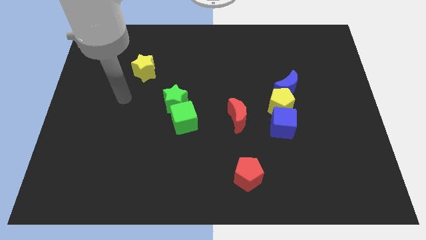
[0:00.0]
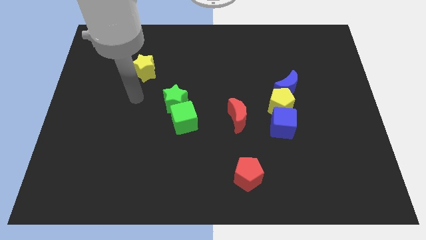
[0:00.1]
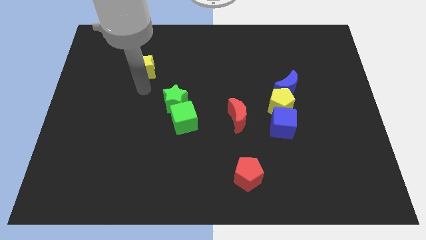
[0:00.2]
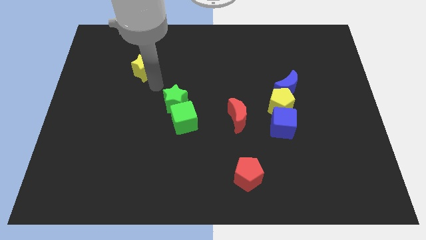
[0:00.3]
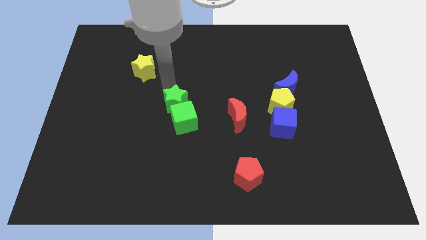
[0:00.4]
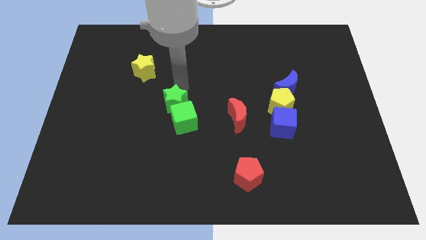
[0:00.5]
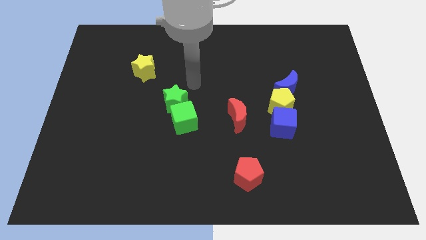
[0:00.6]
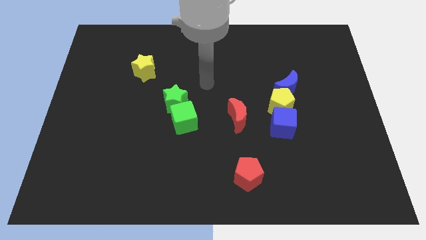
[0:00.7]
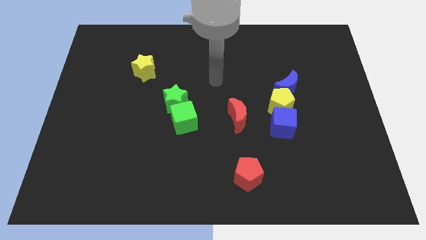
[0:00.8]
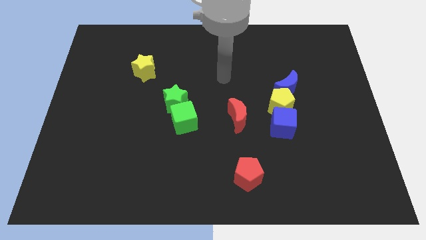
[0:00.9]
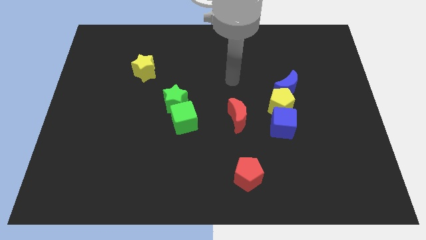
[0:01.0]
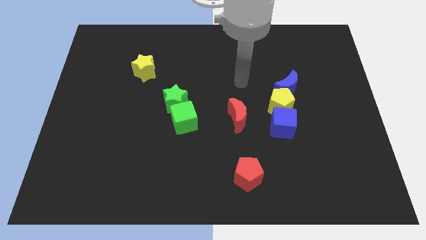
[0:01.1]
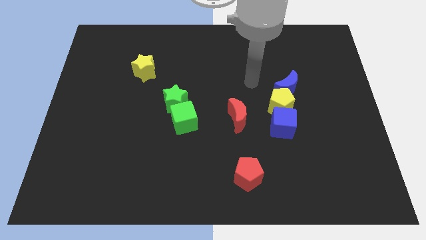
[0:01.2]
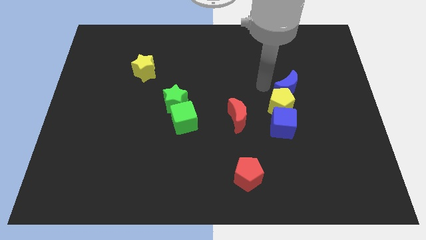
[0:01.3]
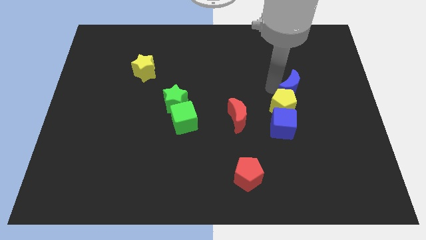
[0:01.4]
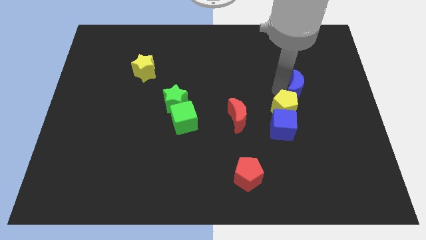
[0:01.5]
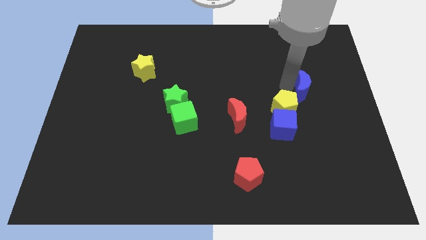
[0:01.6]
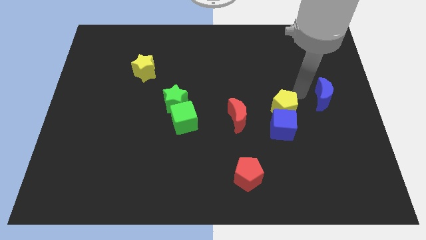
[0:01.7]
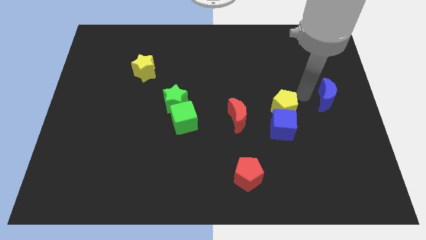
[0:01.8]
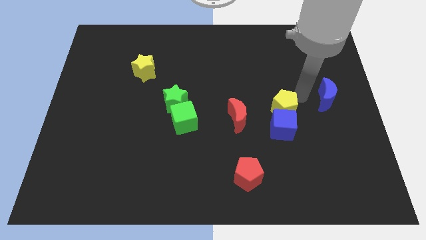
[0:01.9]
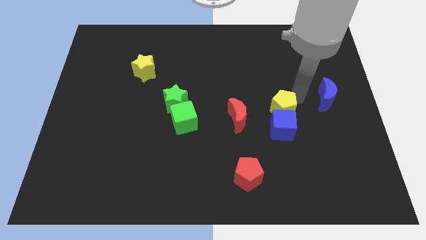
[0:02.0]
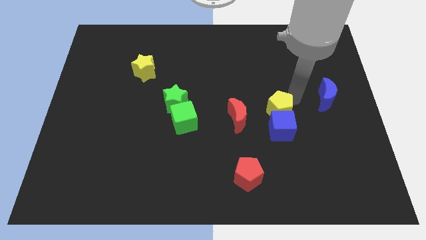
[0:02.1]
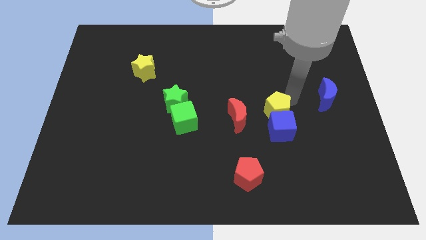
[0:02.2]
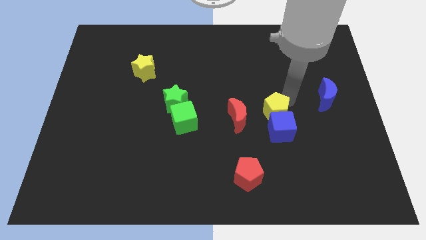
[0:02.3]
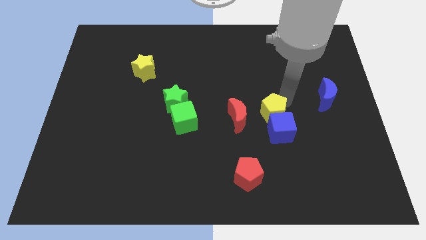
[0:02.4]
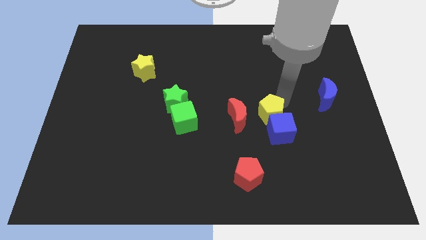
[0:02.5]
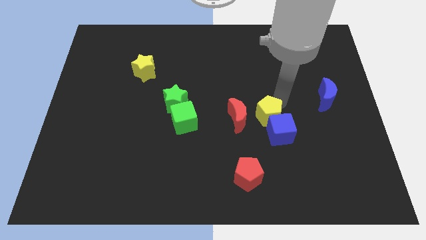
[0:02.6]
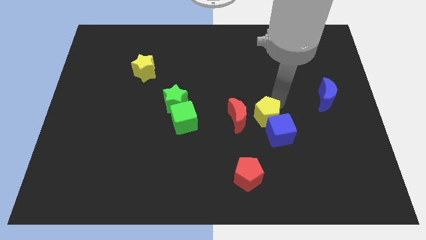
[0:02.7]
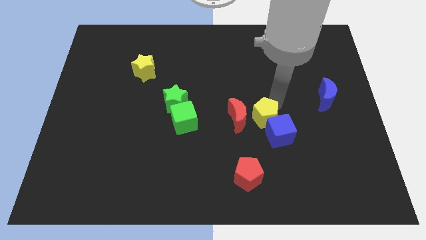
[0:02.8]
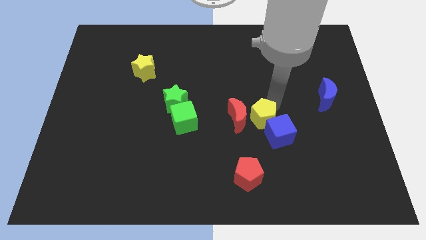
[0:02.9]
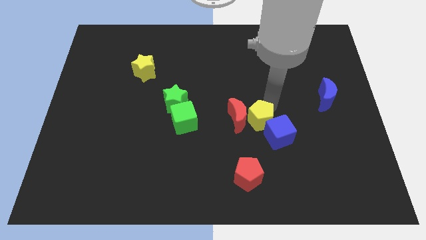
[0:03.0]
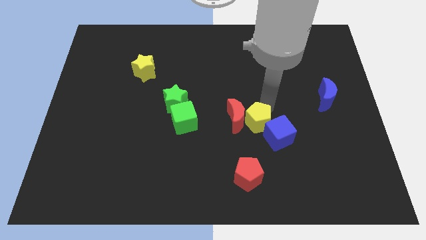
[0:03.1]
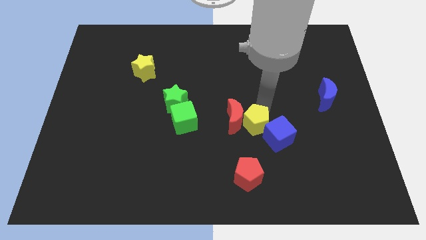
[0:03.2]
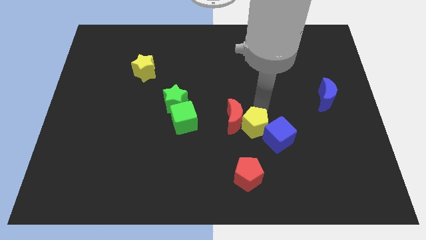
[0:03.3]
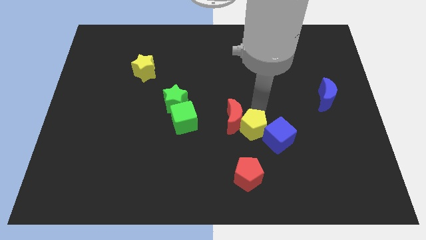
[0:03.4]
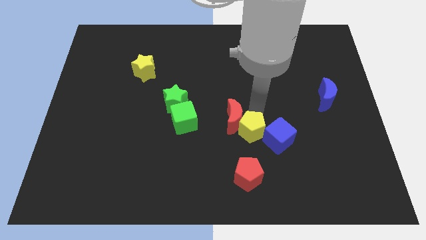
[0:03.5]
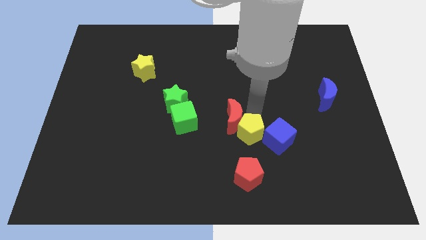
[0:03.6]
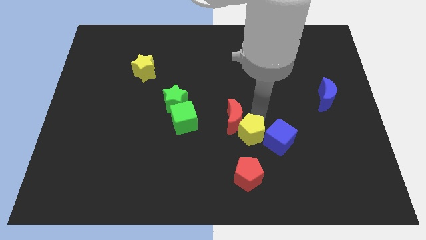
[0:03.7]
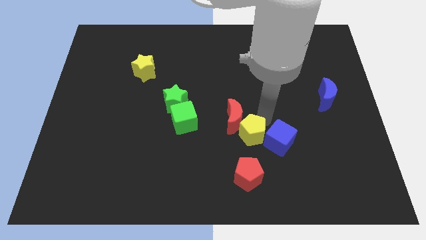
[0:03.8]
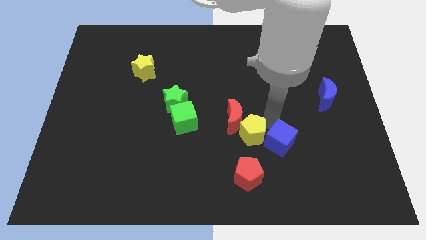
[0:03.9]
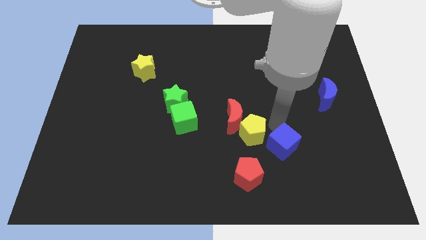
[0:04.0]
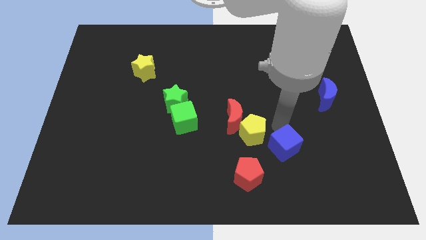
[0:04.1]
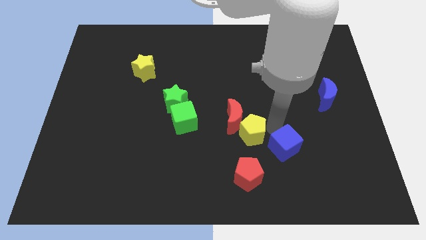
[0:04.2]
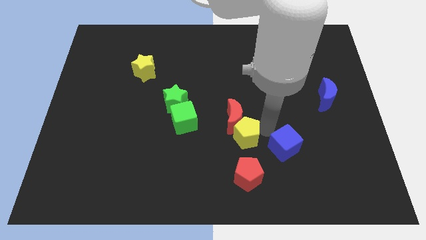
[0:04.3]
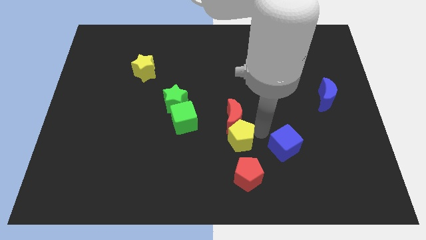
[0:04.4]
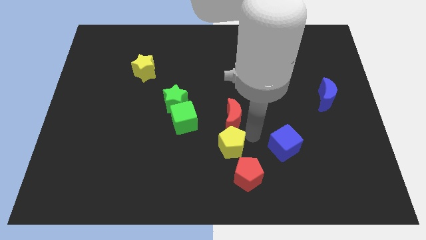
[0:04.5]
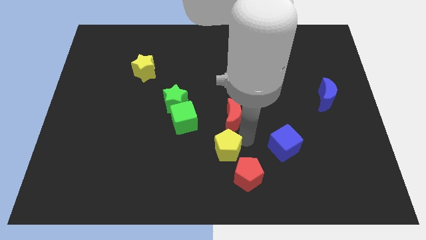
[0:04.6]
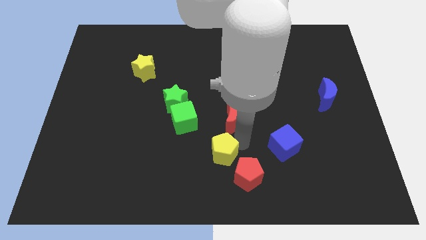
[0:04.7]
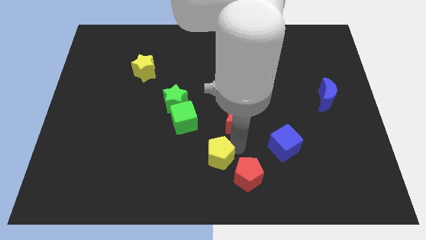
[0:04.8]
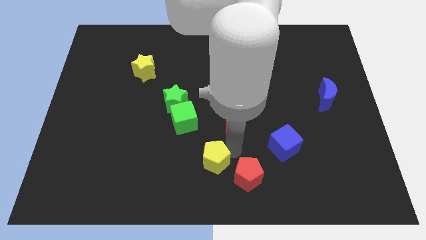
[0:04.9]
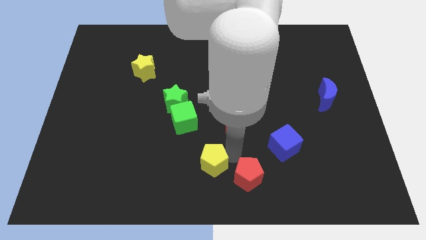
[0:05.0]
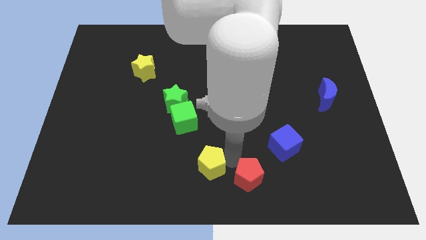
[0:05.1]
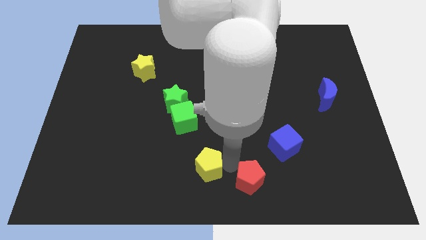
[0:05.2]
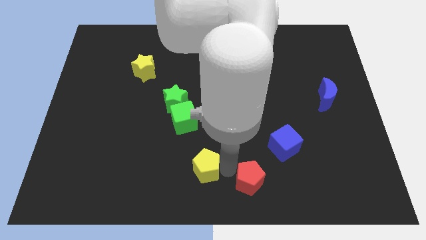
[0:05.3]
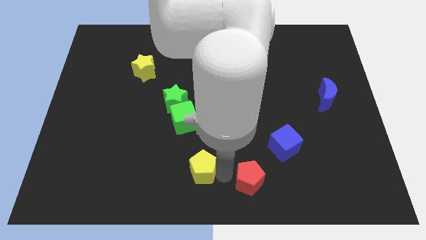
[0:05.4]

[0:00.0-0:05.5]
push the yellow pentagon below the green cube

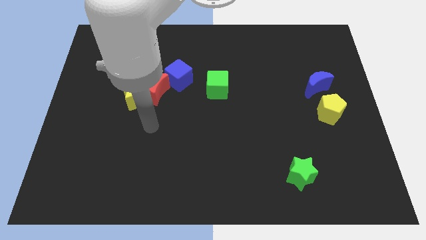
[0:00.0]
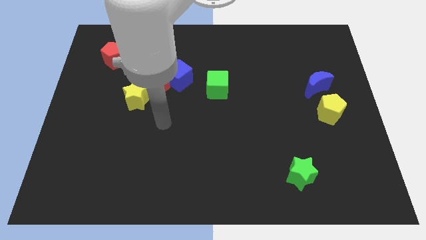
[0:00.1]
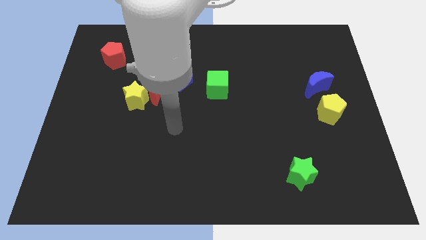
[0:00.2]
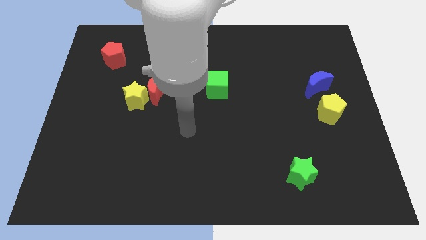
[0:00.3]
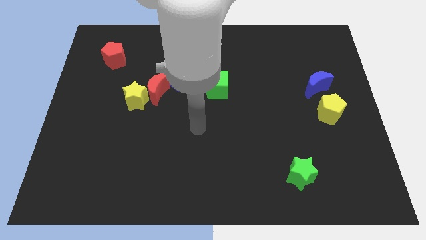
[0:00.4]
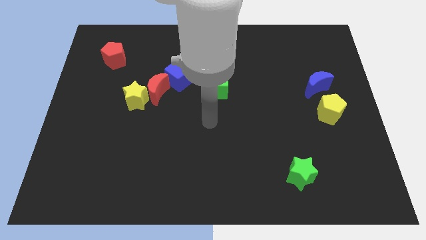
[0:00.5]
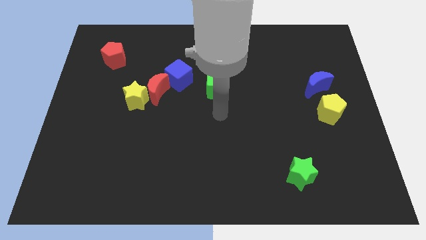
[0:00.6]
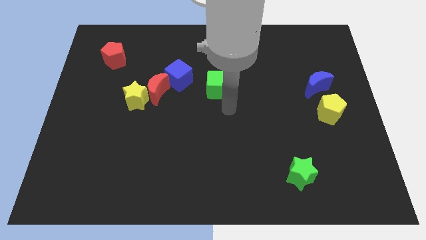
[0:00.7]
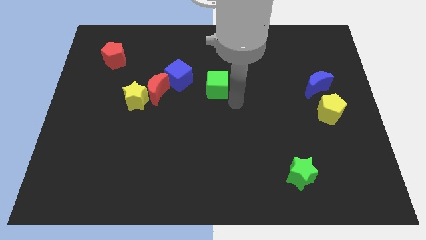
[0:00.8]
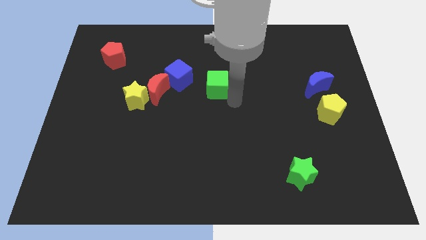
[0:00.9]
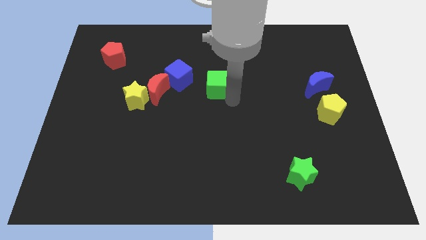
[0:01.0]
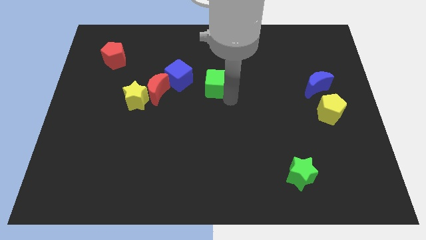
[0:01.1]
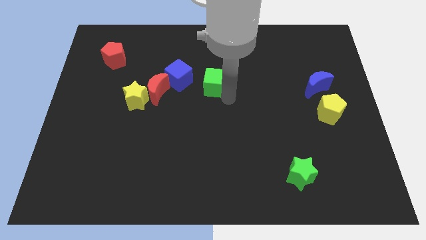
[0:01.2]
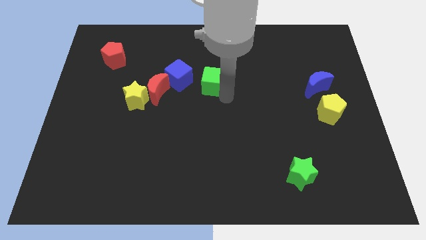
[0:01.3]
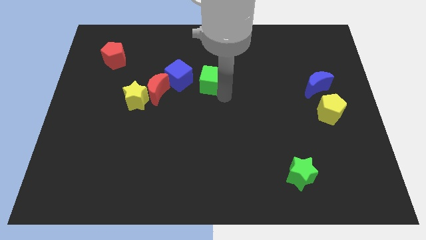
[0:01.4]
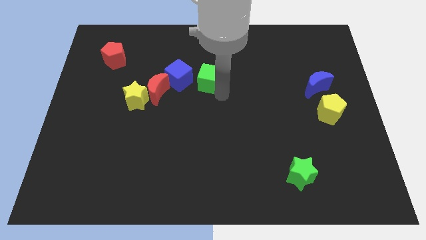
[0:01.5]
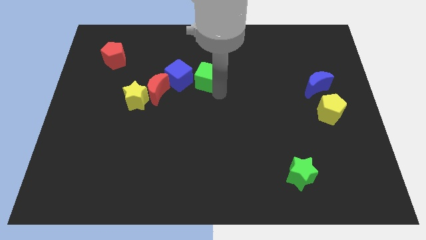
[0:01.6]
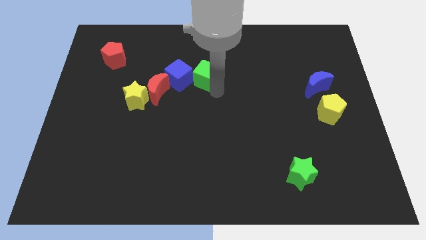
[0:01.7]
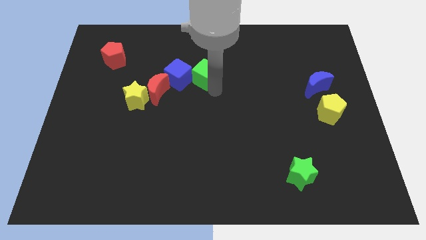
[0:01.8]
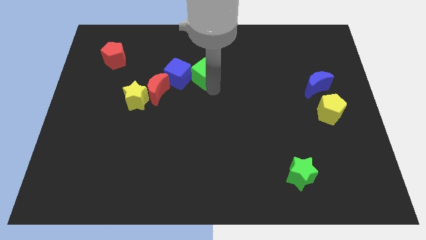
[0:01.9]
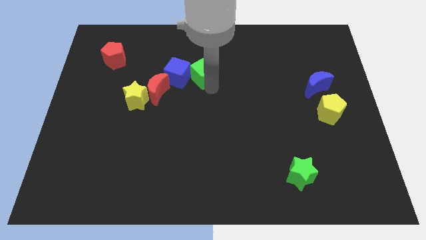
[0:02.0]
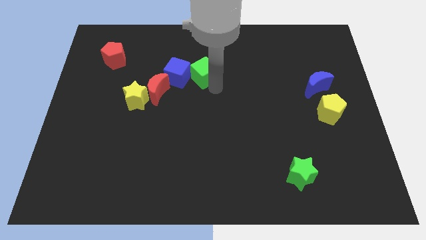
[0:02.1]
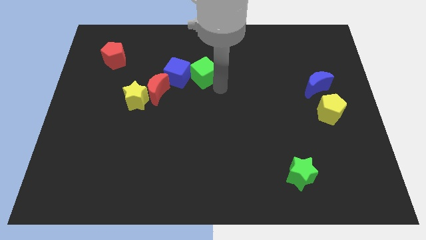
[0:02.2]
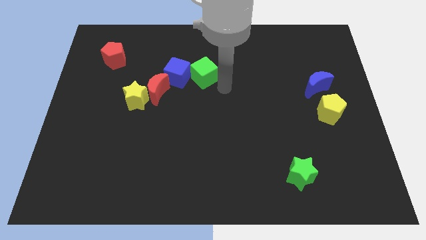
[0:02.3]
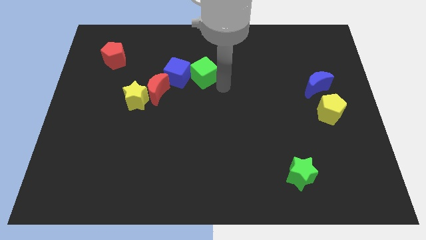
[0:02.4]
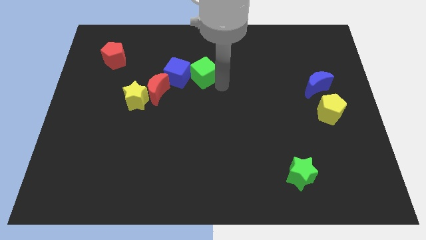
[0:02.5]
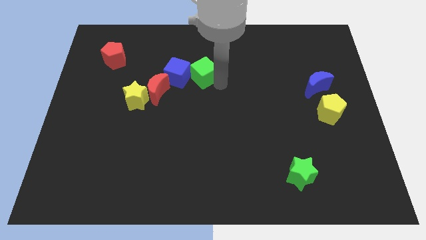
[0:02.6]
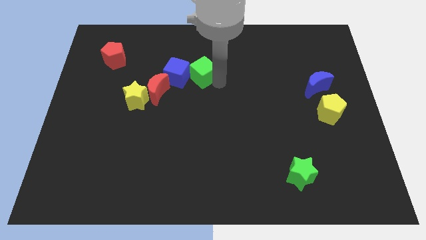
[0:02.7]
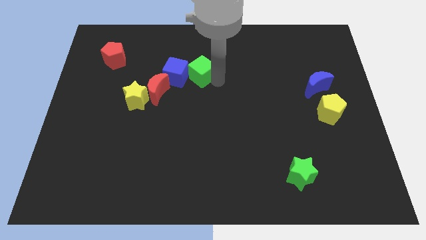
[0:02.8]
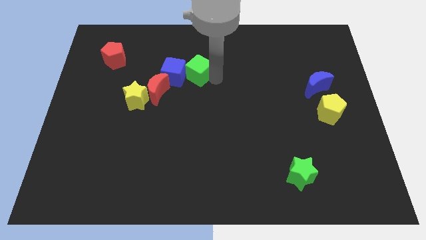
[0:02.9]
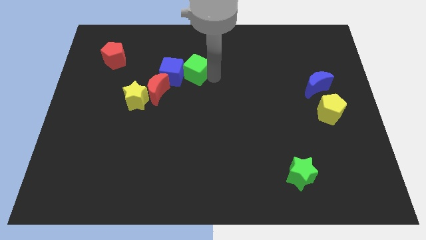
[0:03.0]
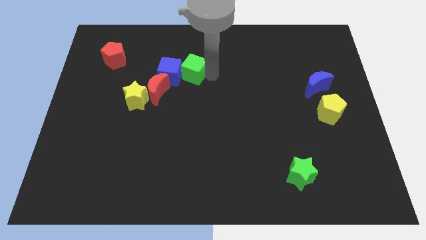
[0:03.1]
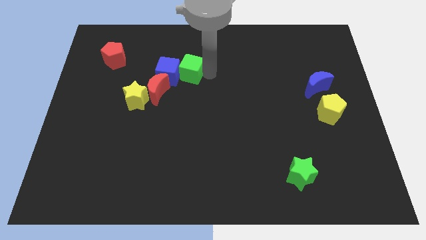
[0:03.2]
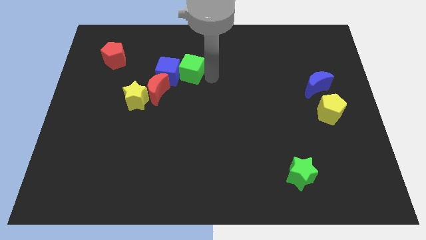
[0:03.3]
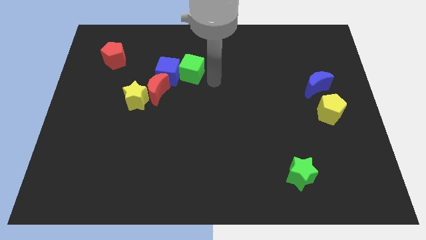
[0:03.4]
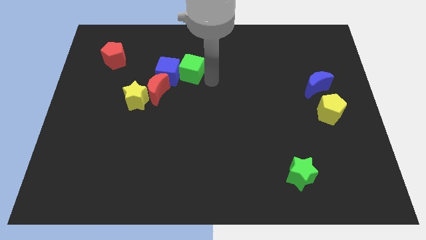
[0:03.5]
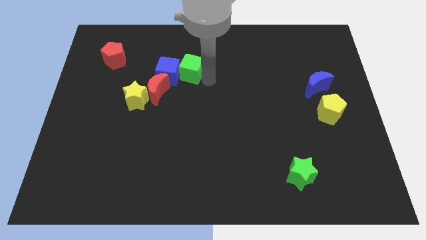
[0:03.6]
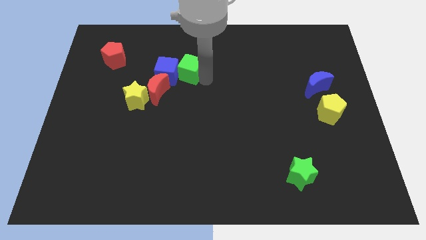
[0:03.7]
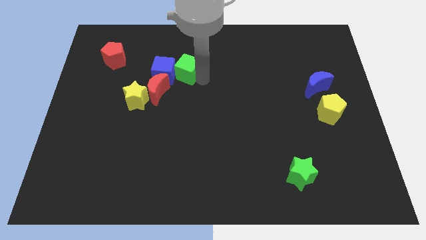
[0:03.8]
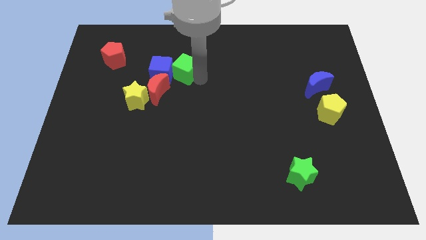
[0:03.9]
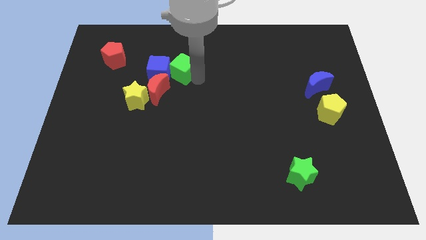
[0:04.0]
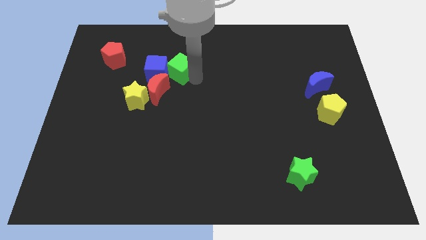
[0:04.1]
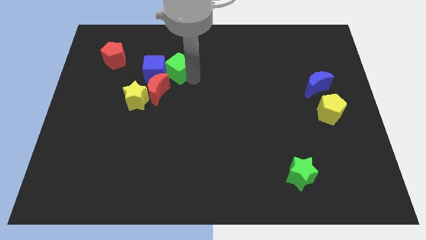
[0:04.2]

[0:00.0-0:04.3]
put the green cube to the top of the red moon
